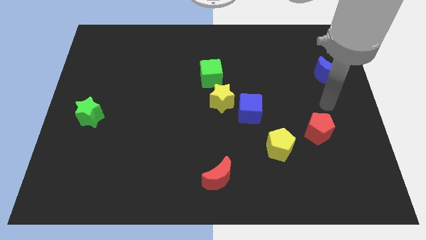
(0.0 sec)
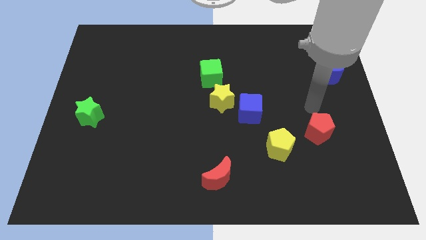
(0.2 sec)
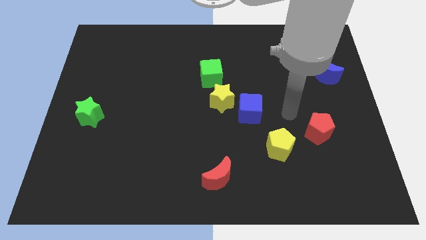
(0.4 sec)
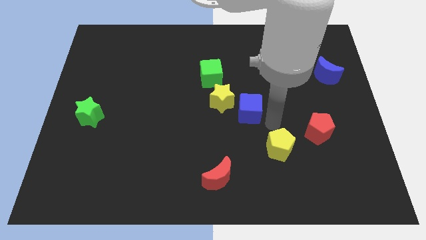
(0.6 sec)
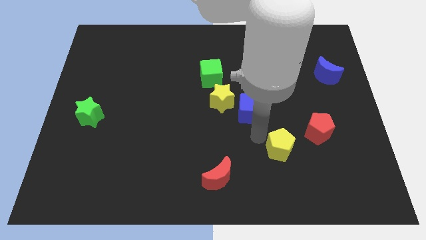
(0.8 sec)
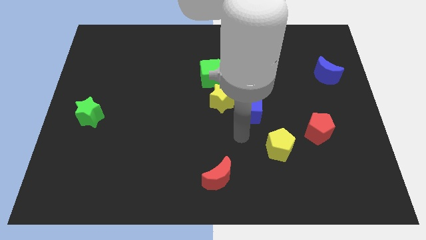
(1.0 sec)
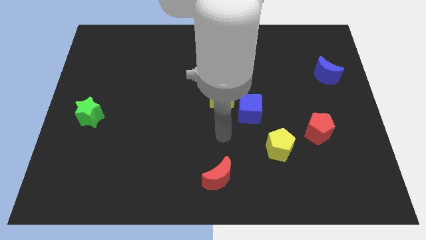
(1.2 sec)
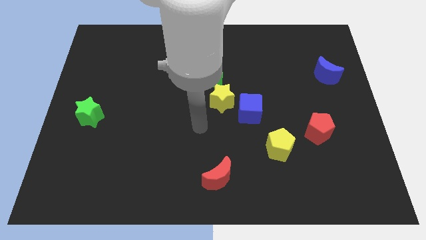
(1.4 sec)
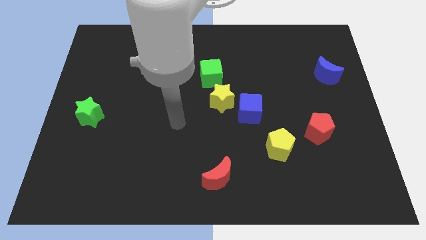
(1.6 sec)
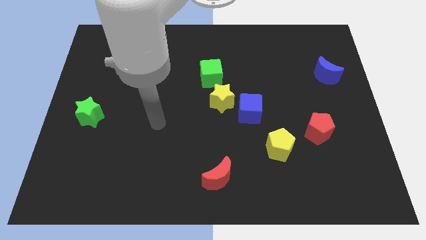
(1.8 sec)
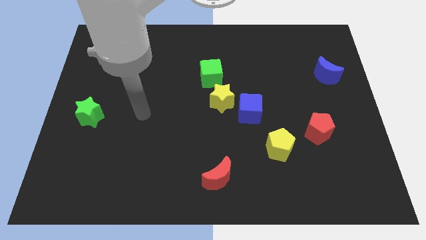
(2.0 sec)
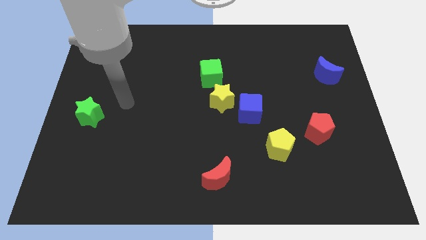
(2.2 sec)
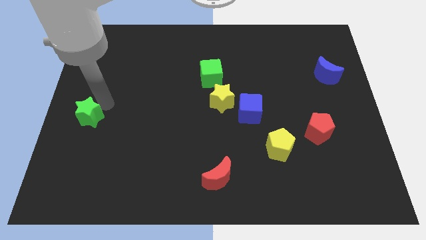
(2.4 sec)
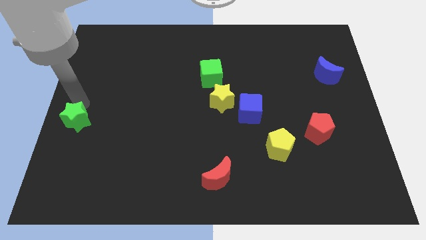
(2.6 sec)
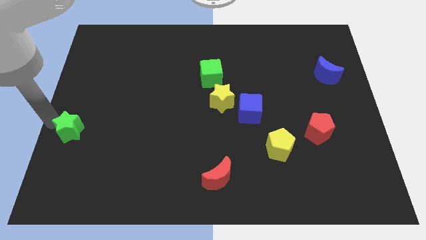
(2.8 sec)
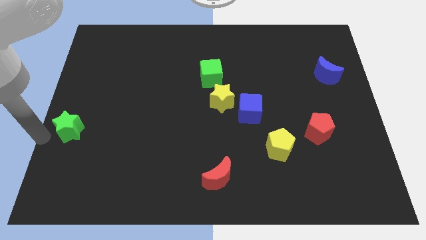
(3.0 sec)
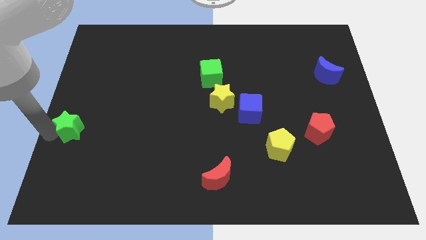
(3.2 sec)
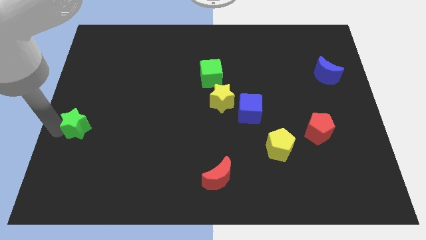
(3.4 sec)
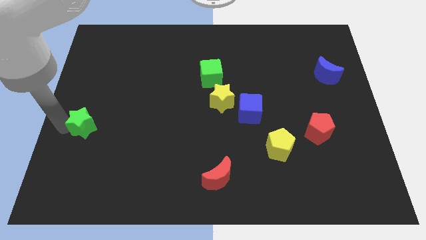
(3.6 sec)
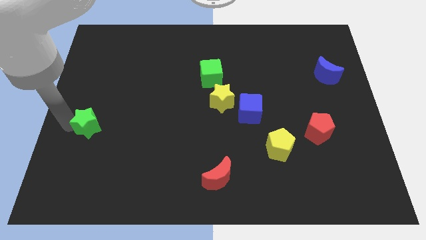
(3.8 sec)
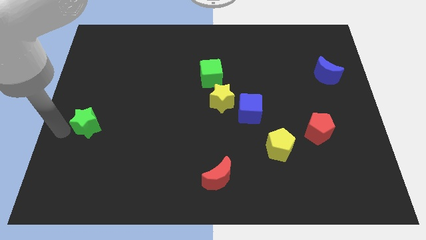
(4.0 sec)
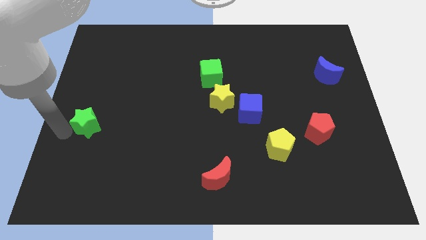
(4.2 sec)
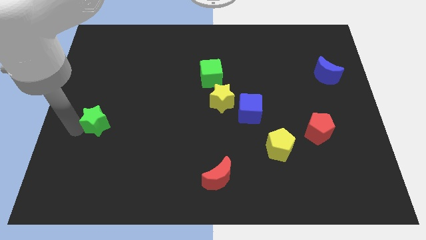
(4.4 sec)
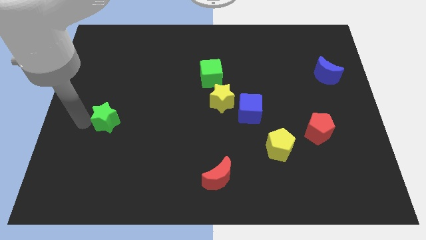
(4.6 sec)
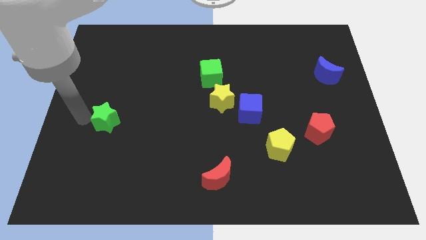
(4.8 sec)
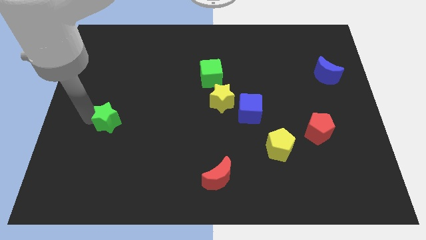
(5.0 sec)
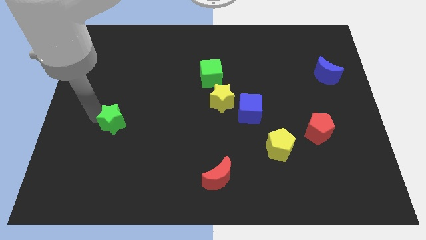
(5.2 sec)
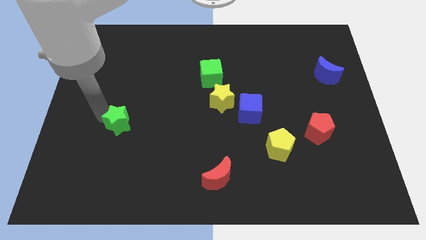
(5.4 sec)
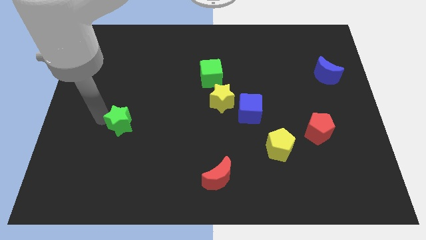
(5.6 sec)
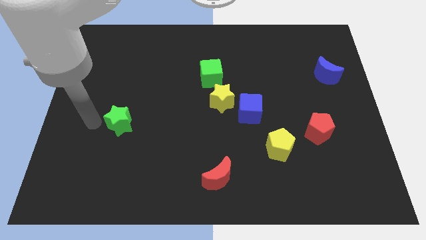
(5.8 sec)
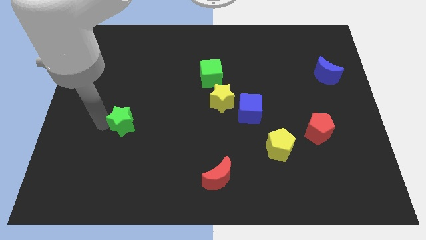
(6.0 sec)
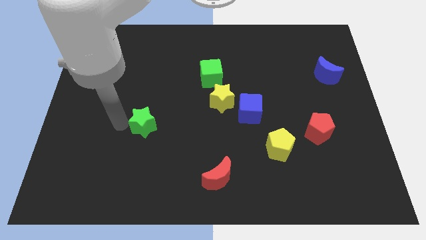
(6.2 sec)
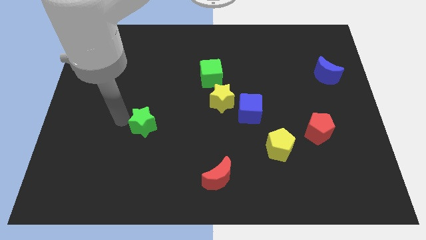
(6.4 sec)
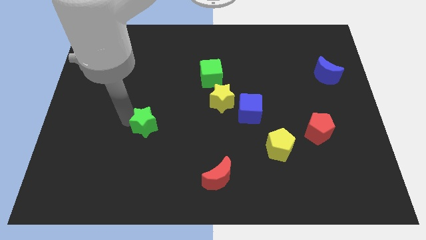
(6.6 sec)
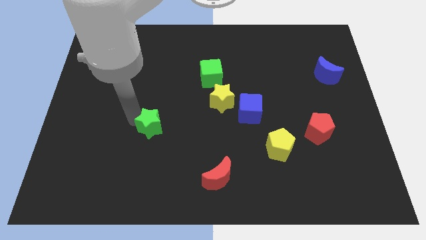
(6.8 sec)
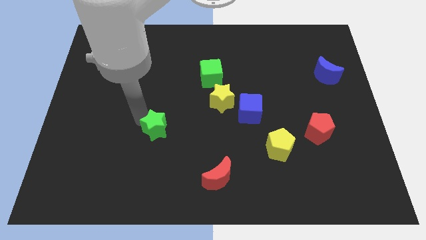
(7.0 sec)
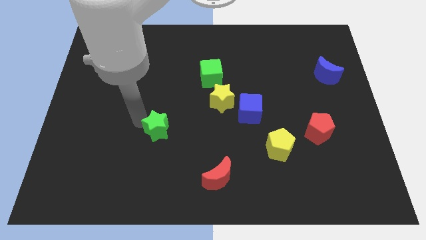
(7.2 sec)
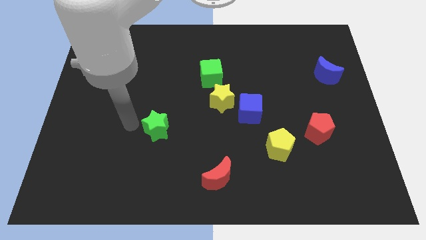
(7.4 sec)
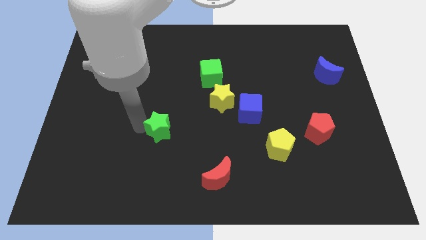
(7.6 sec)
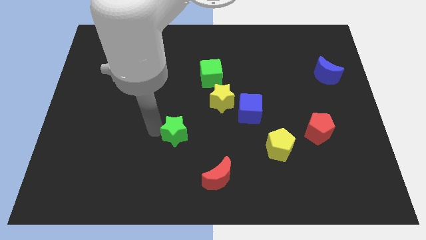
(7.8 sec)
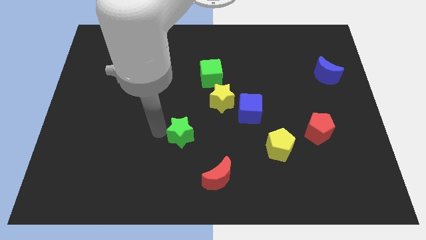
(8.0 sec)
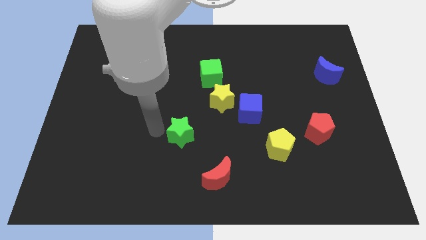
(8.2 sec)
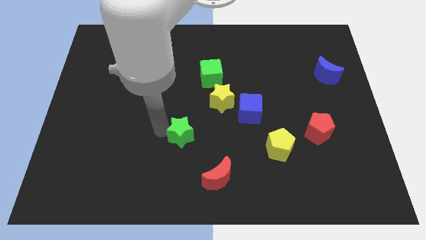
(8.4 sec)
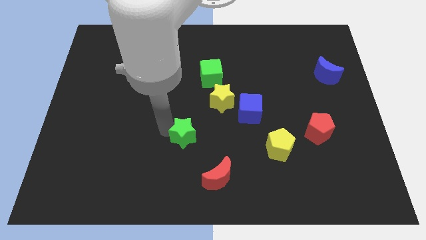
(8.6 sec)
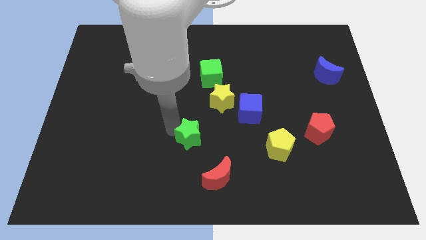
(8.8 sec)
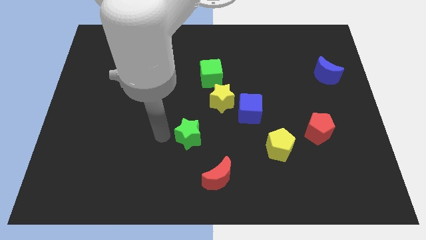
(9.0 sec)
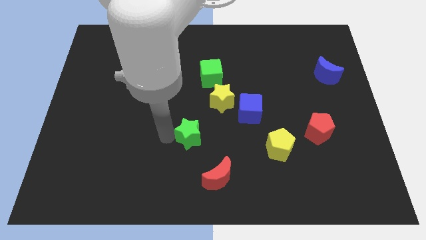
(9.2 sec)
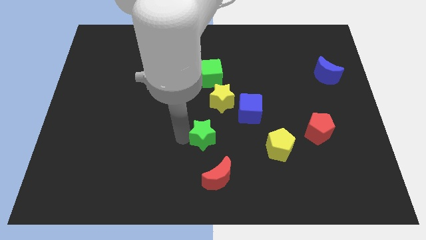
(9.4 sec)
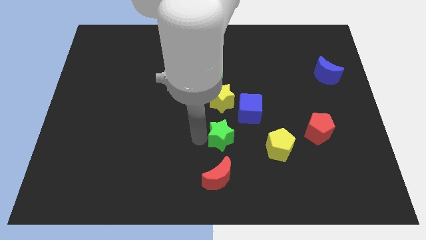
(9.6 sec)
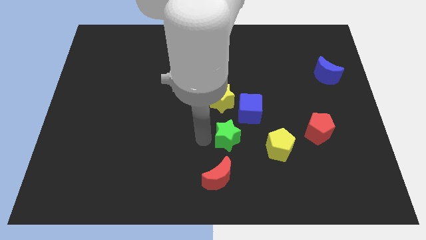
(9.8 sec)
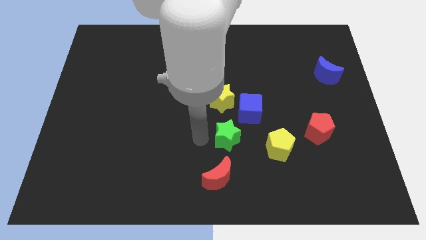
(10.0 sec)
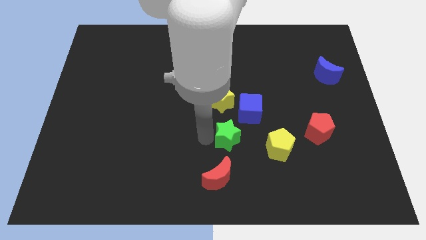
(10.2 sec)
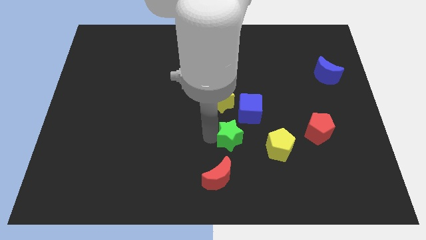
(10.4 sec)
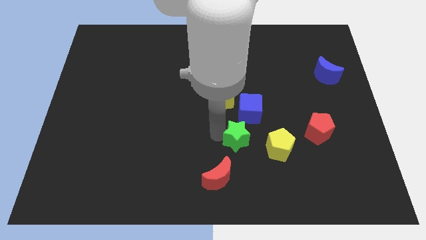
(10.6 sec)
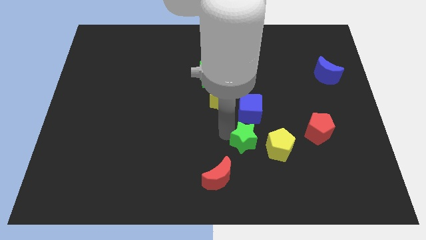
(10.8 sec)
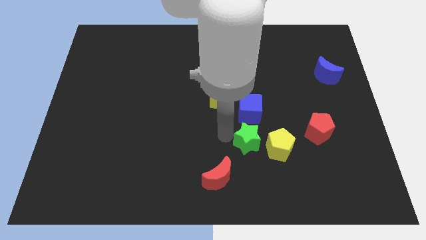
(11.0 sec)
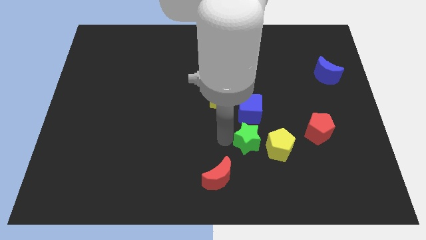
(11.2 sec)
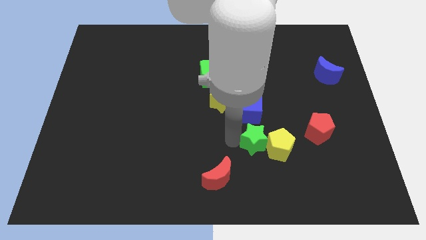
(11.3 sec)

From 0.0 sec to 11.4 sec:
slide the green star next to the yellow pentagon

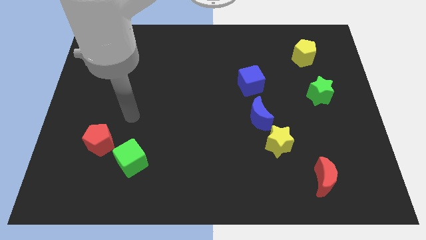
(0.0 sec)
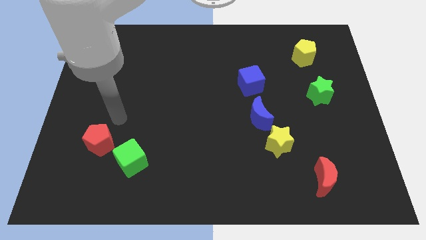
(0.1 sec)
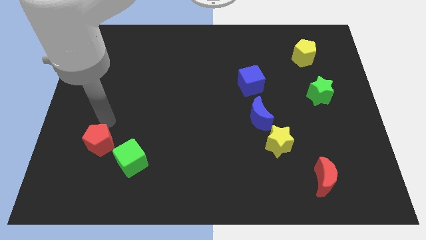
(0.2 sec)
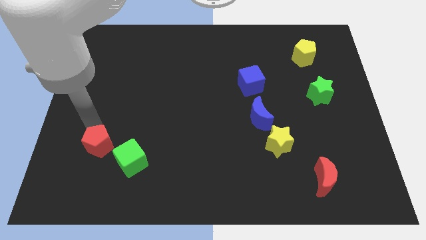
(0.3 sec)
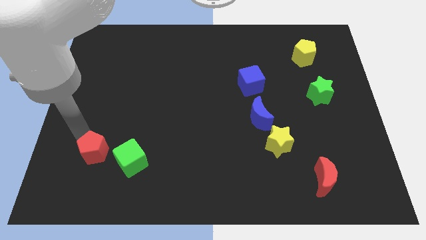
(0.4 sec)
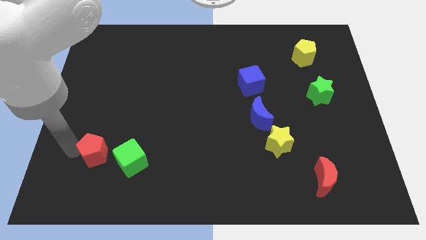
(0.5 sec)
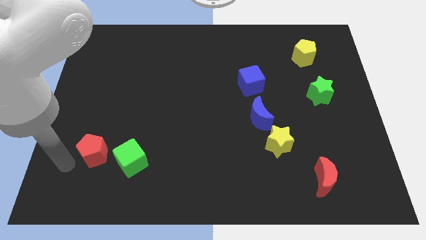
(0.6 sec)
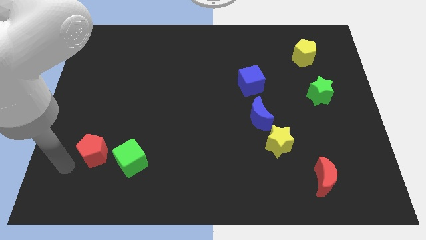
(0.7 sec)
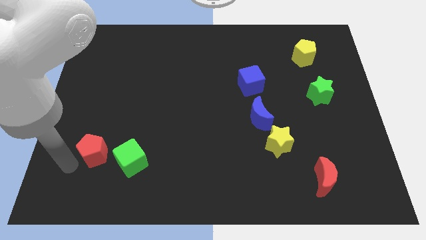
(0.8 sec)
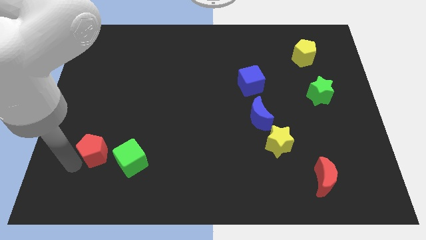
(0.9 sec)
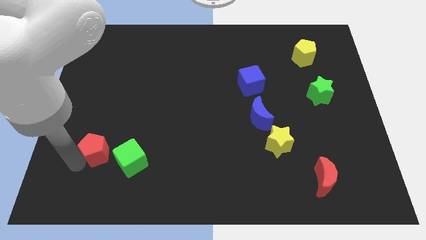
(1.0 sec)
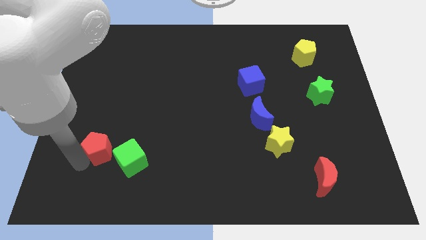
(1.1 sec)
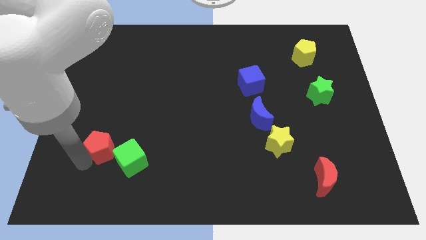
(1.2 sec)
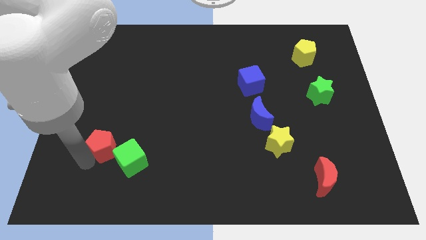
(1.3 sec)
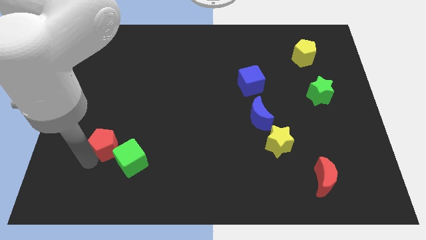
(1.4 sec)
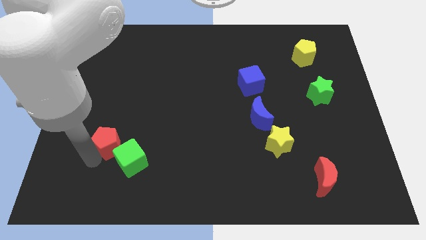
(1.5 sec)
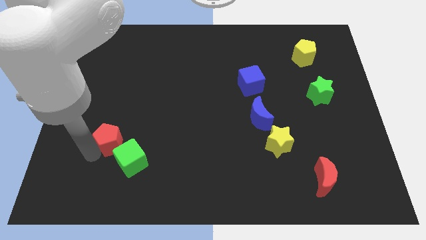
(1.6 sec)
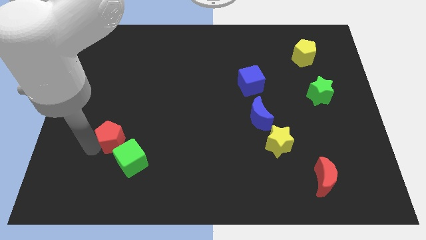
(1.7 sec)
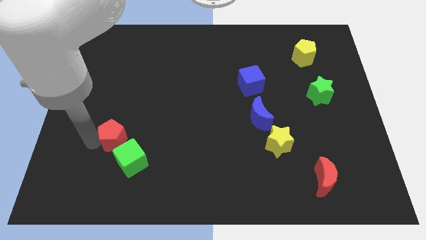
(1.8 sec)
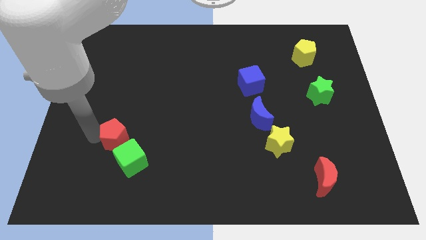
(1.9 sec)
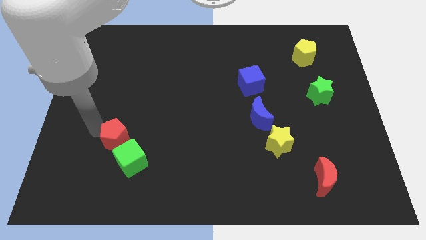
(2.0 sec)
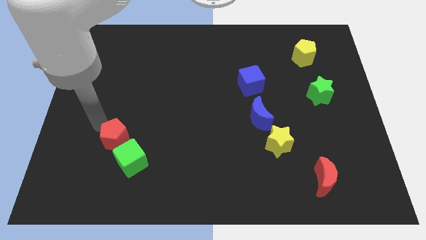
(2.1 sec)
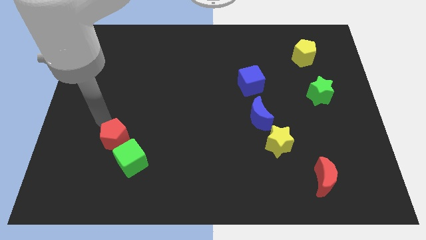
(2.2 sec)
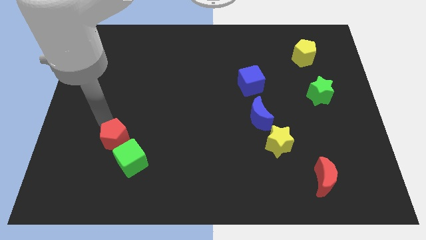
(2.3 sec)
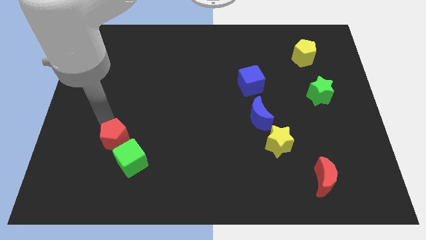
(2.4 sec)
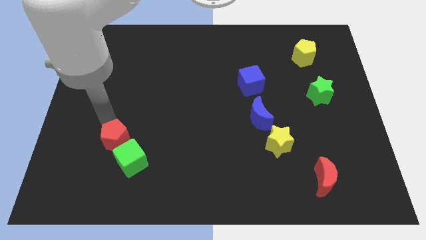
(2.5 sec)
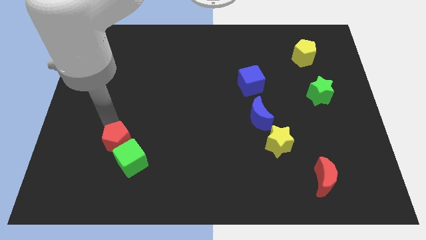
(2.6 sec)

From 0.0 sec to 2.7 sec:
slide the red pentagon to the green cube
